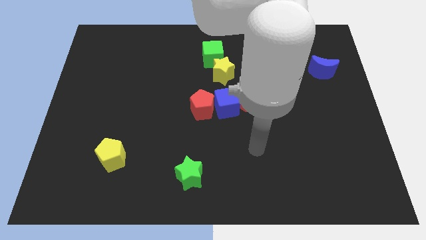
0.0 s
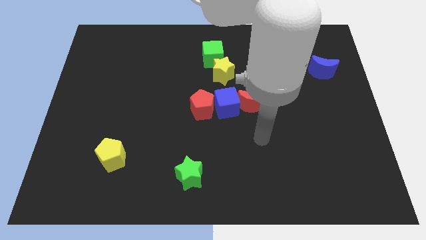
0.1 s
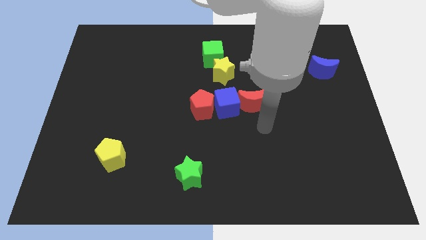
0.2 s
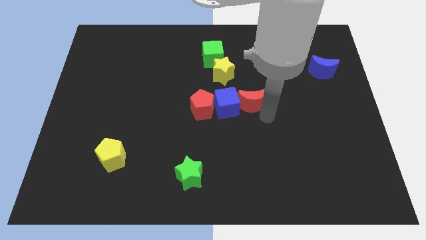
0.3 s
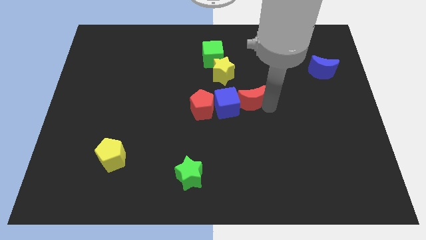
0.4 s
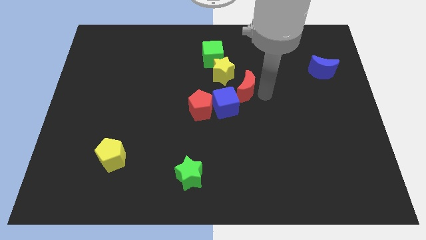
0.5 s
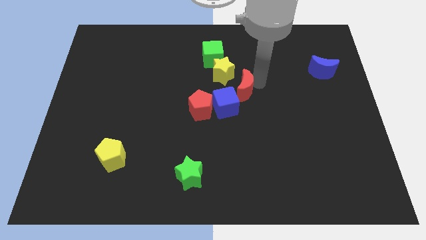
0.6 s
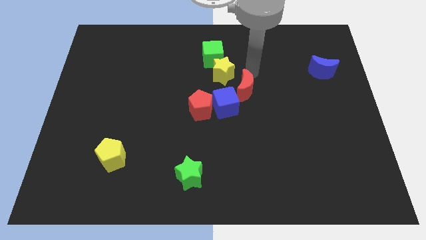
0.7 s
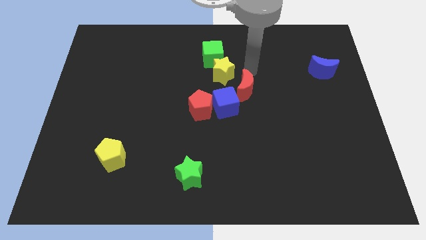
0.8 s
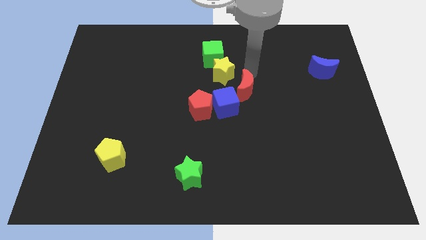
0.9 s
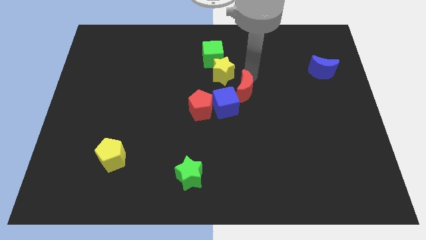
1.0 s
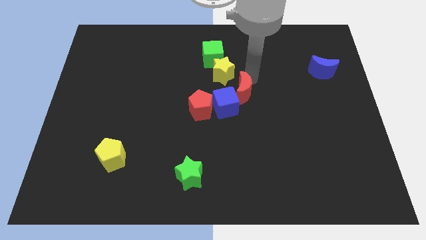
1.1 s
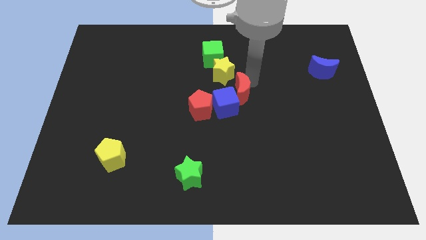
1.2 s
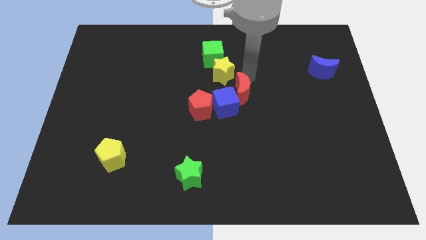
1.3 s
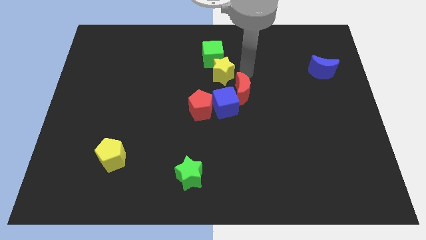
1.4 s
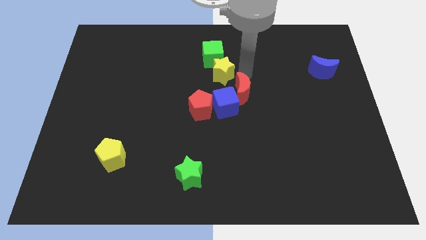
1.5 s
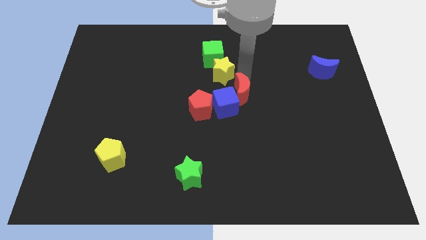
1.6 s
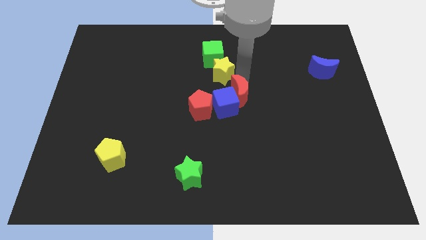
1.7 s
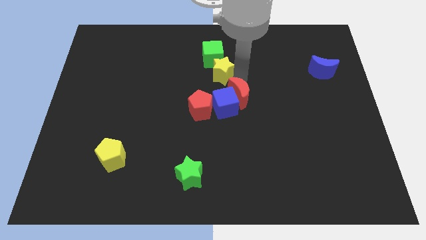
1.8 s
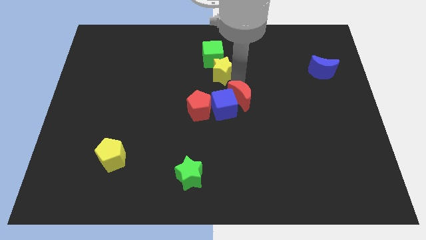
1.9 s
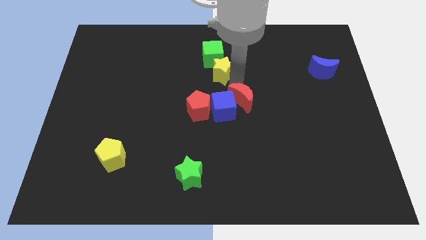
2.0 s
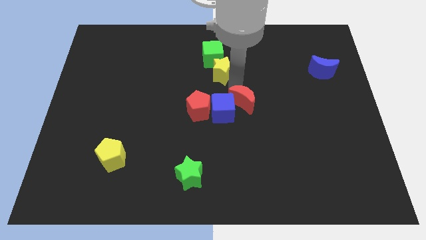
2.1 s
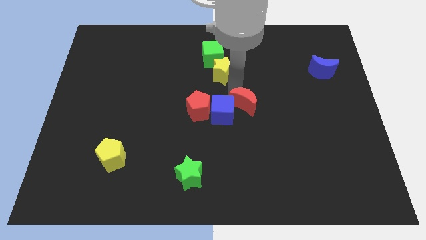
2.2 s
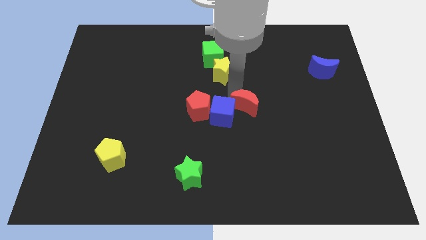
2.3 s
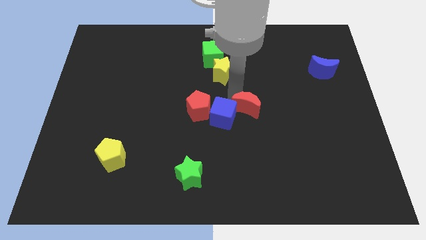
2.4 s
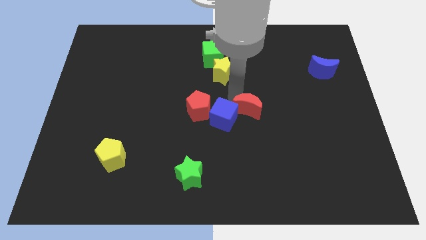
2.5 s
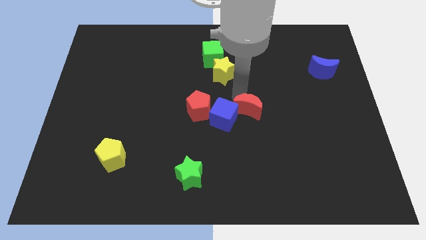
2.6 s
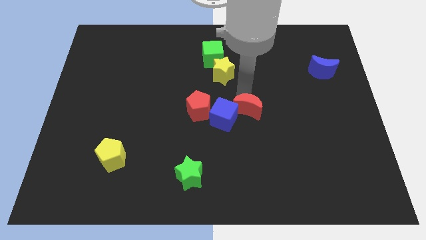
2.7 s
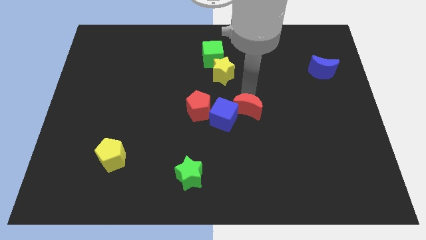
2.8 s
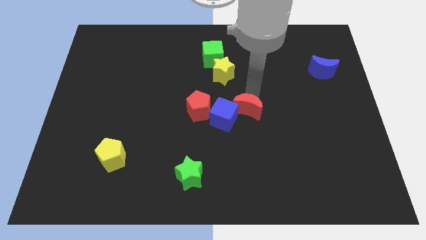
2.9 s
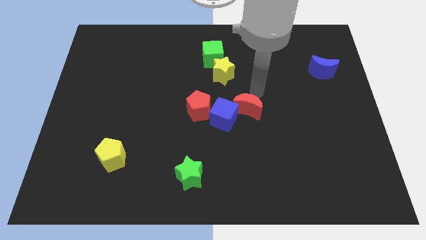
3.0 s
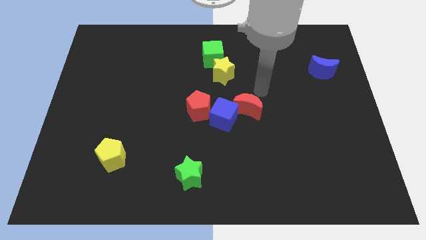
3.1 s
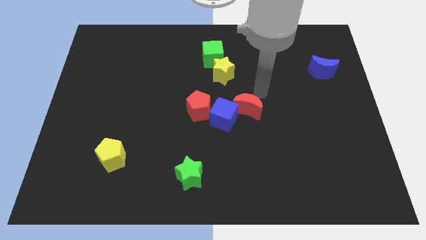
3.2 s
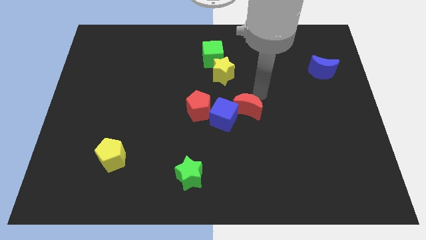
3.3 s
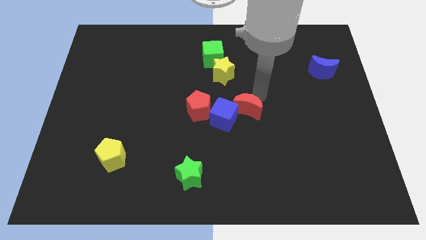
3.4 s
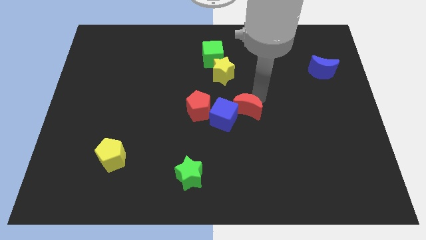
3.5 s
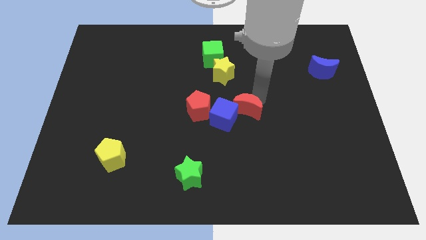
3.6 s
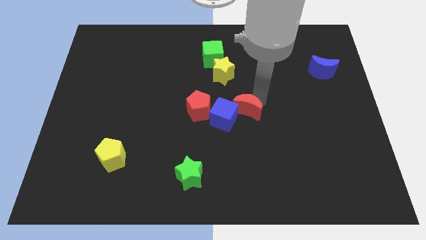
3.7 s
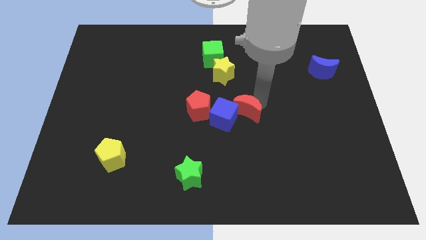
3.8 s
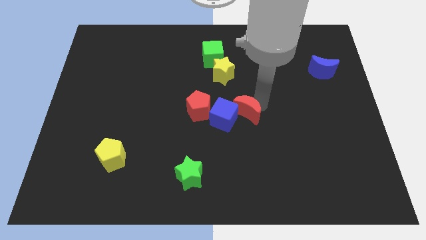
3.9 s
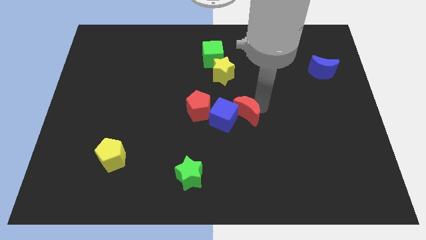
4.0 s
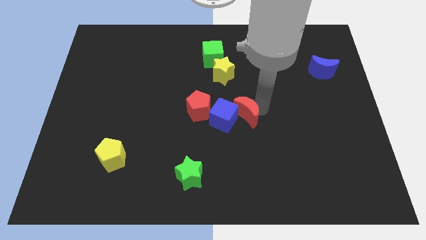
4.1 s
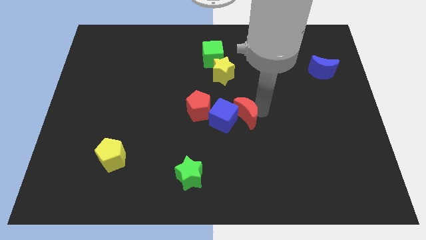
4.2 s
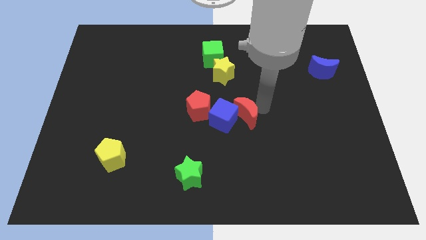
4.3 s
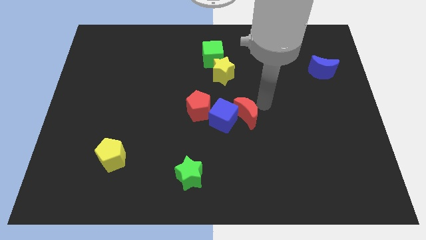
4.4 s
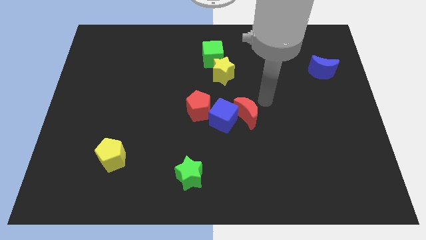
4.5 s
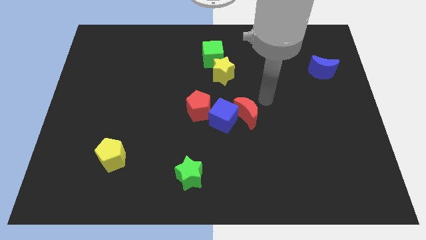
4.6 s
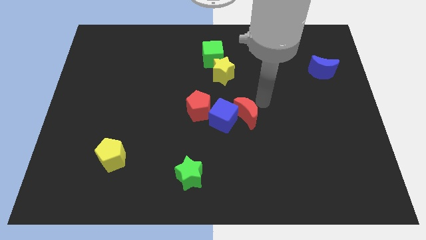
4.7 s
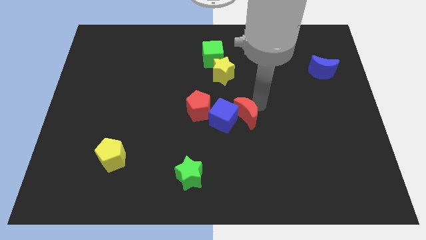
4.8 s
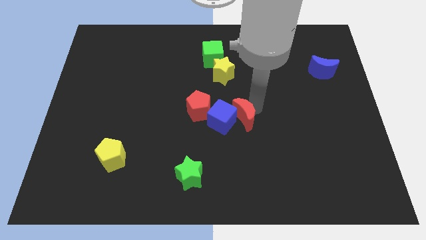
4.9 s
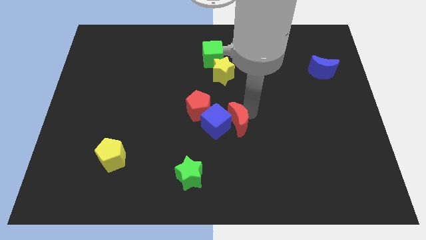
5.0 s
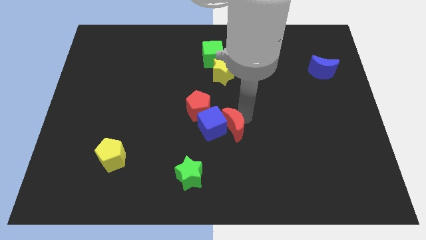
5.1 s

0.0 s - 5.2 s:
slide the red moon downwards and left a bit

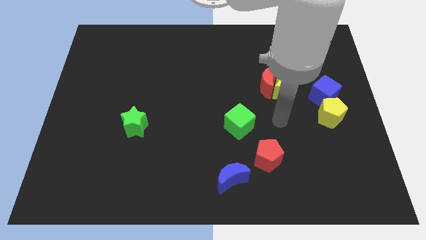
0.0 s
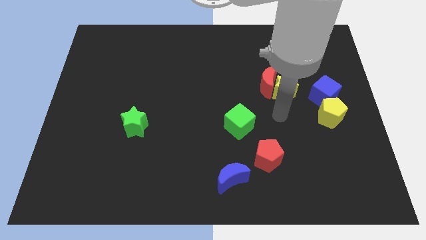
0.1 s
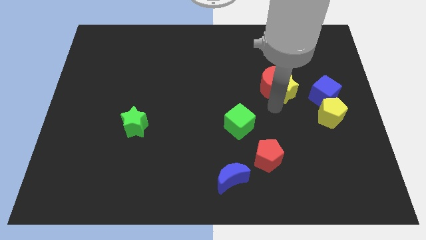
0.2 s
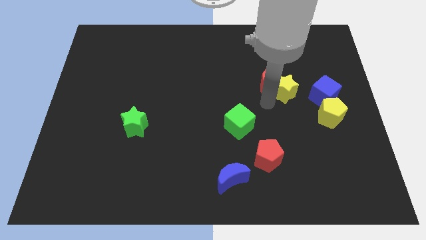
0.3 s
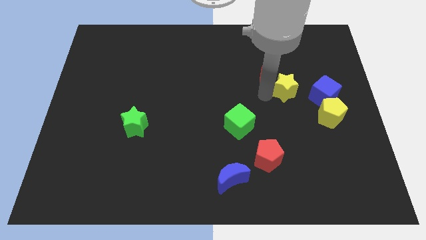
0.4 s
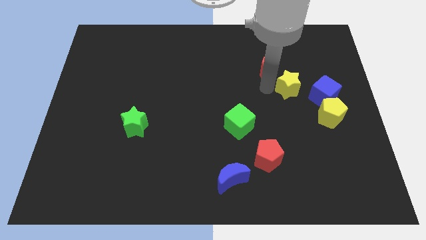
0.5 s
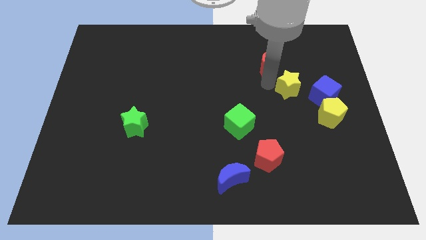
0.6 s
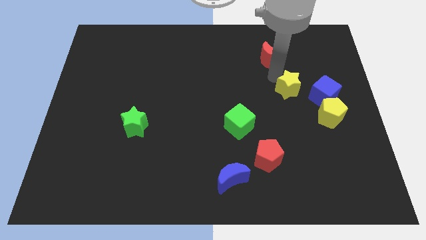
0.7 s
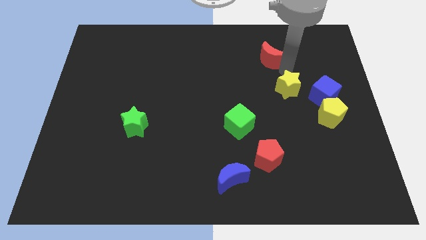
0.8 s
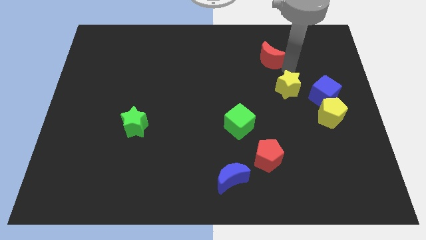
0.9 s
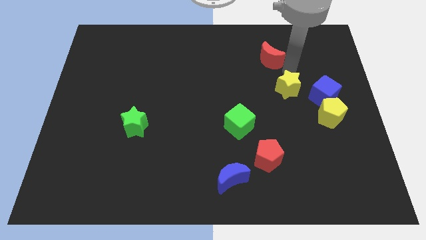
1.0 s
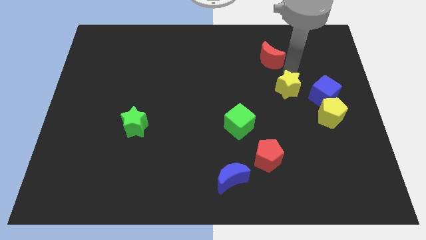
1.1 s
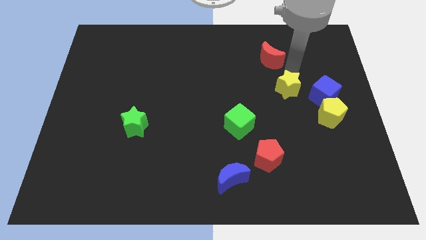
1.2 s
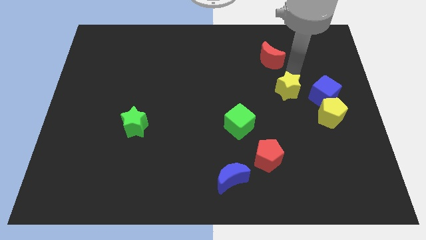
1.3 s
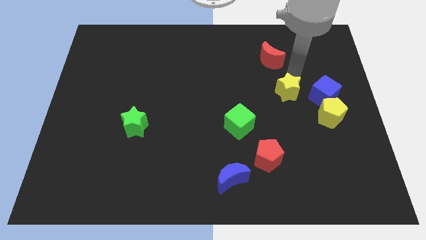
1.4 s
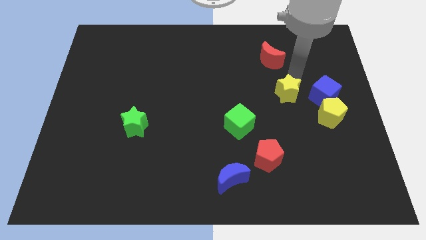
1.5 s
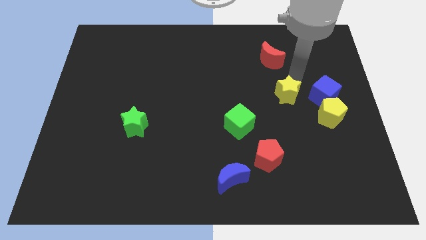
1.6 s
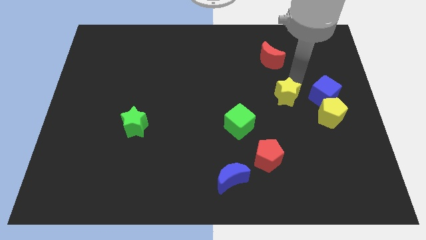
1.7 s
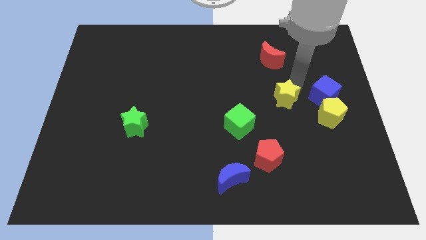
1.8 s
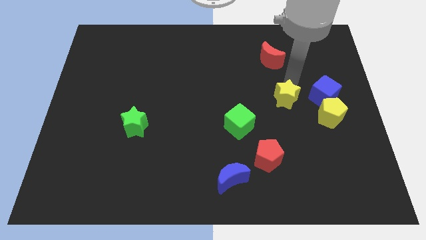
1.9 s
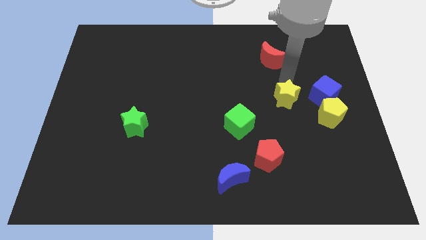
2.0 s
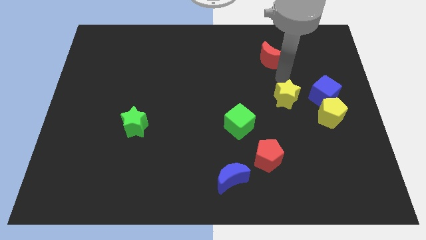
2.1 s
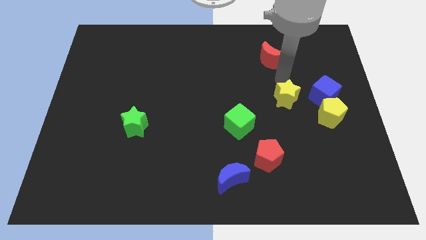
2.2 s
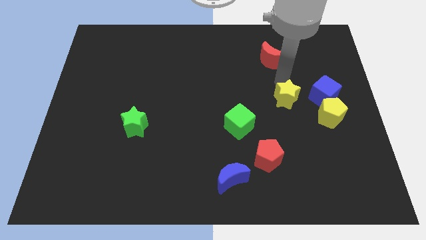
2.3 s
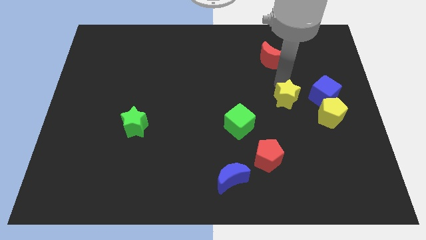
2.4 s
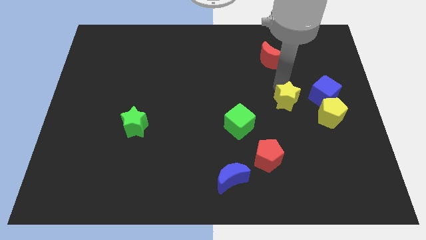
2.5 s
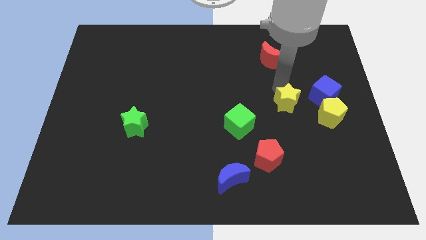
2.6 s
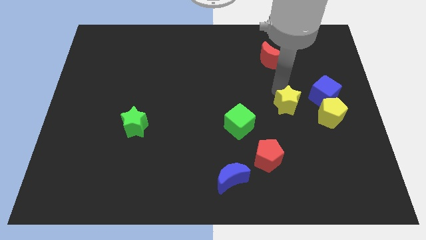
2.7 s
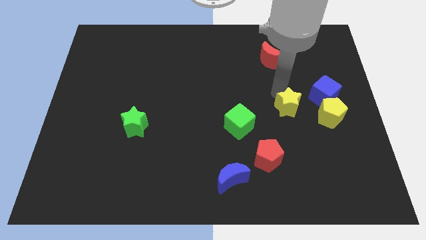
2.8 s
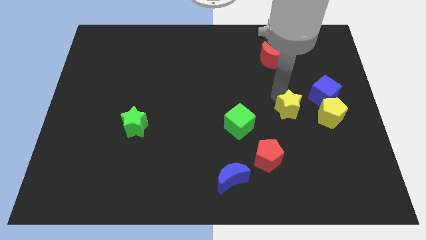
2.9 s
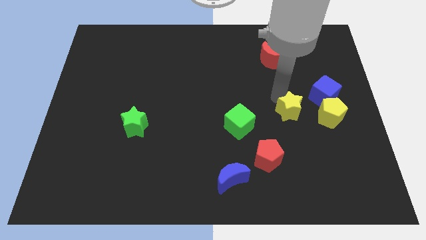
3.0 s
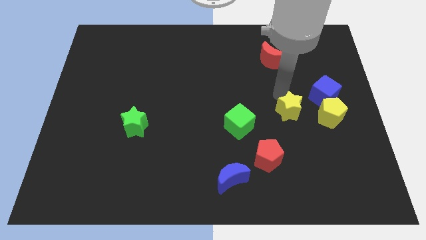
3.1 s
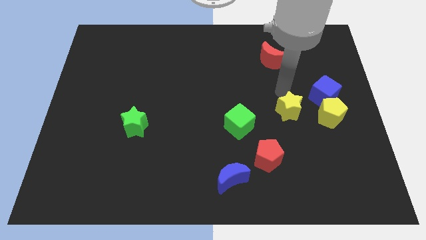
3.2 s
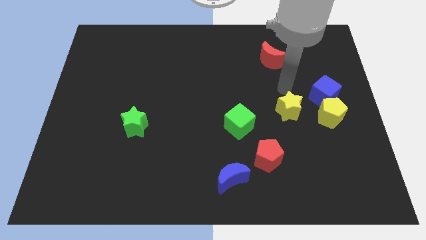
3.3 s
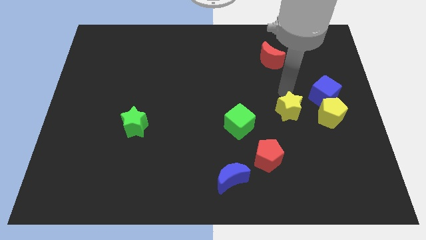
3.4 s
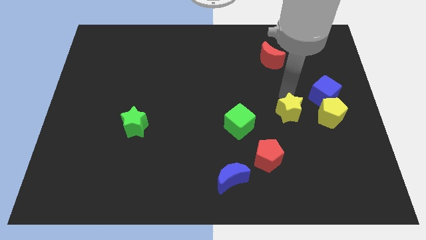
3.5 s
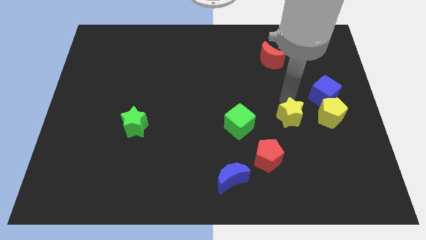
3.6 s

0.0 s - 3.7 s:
move the yellow star somewhat down
